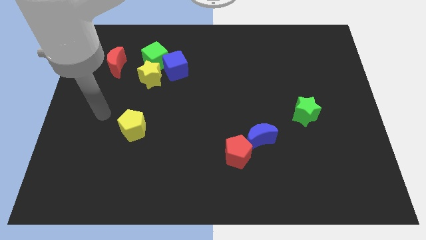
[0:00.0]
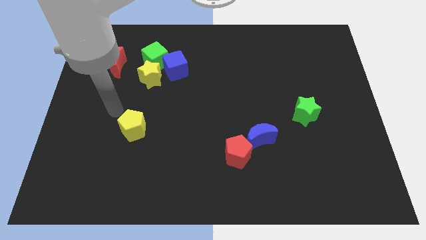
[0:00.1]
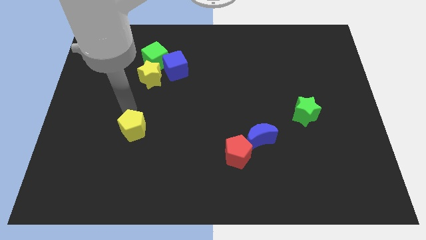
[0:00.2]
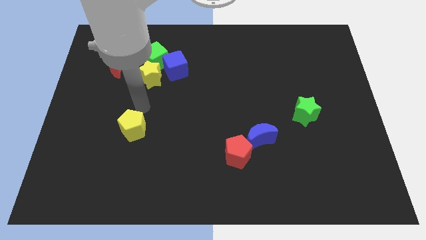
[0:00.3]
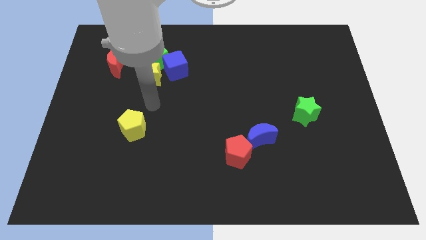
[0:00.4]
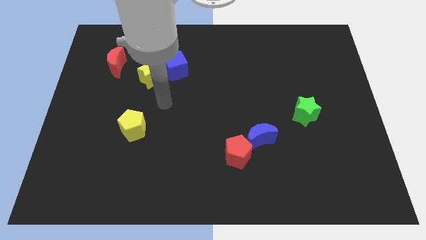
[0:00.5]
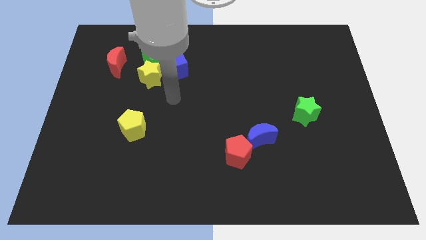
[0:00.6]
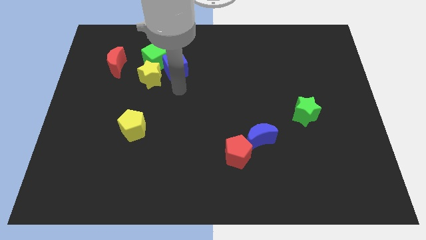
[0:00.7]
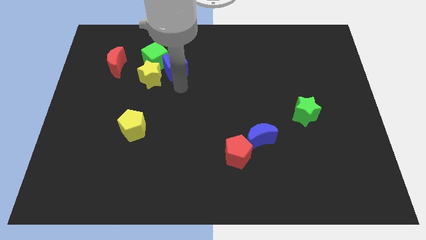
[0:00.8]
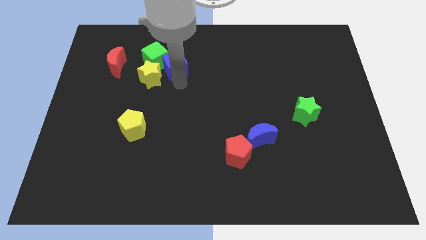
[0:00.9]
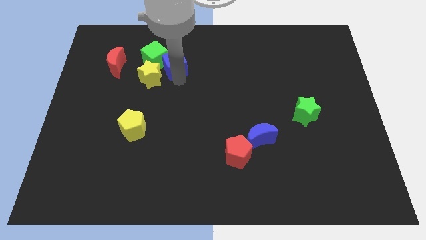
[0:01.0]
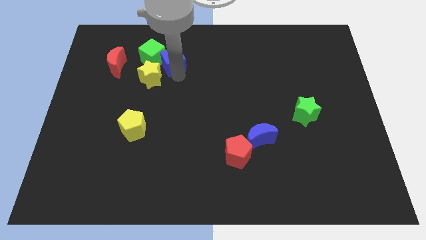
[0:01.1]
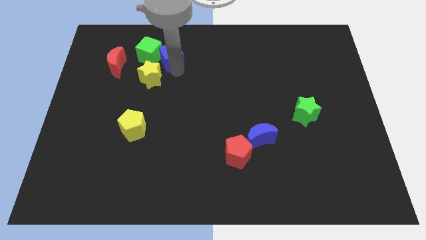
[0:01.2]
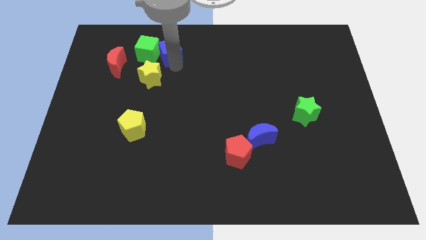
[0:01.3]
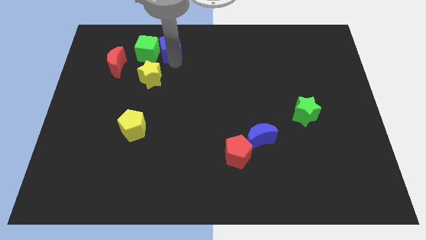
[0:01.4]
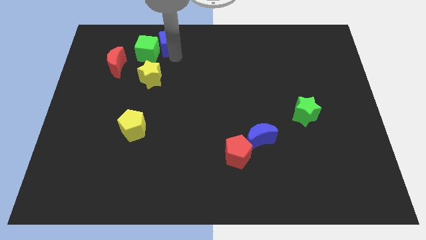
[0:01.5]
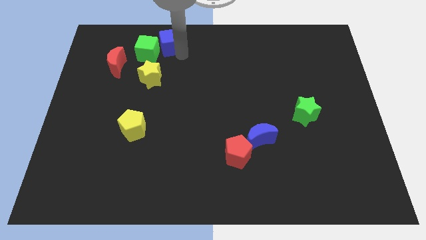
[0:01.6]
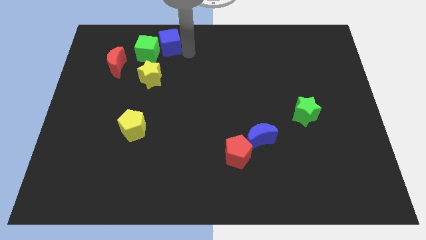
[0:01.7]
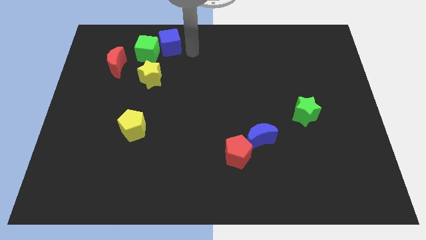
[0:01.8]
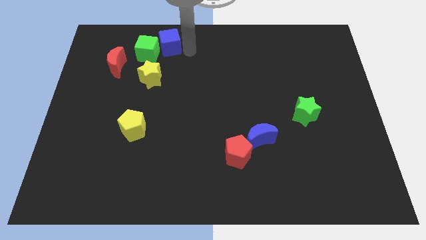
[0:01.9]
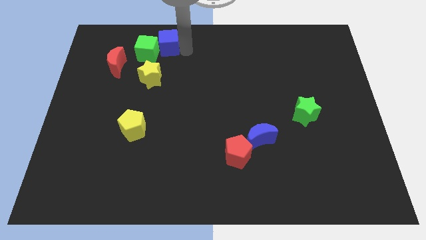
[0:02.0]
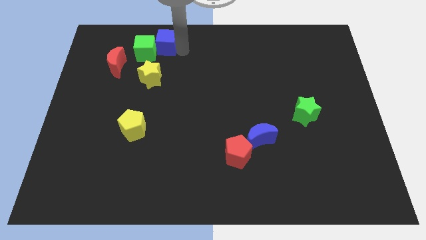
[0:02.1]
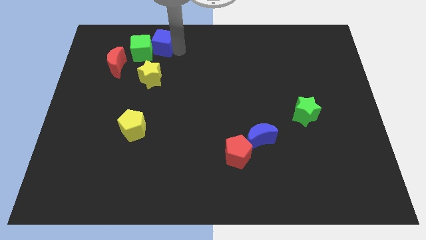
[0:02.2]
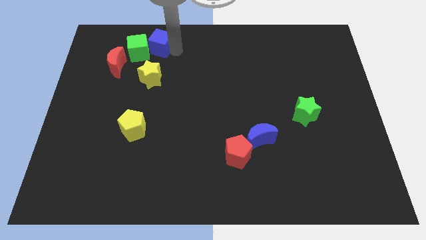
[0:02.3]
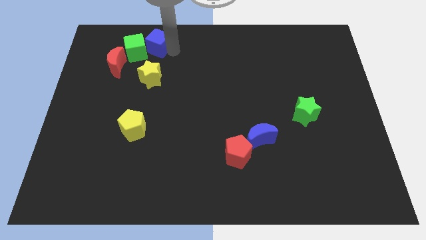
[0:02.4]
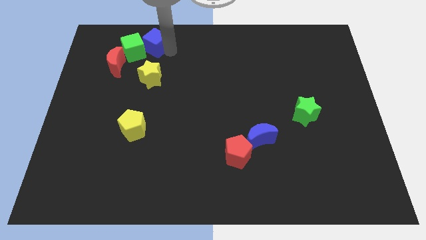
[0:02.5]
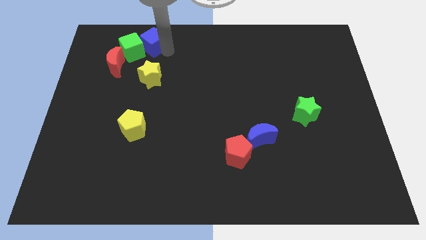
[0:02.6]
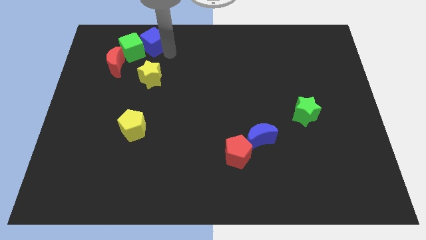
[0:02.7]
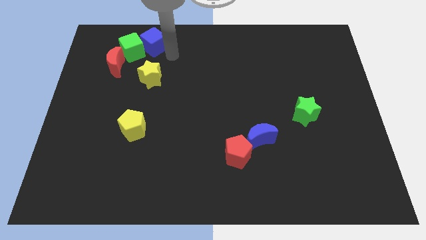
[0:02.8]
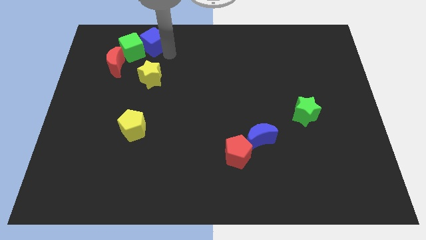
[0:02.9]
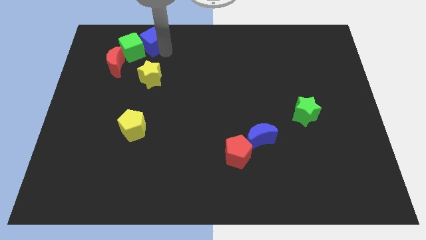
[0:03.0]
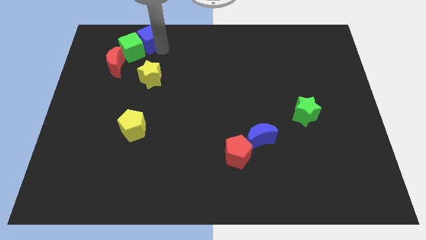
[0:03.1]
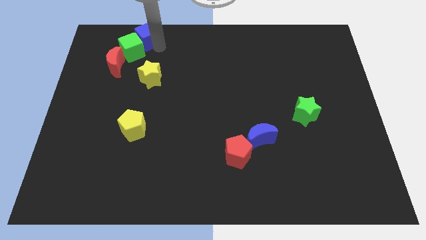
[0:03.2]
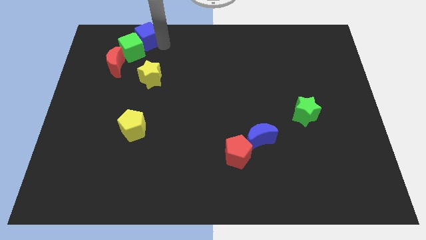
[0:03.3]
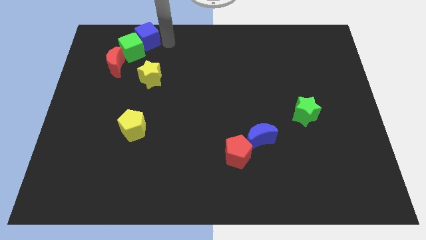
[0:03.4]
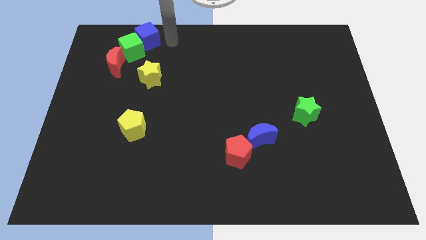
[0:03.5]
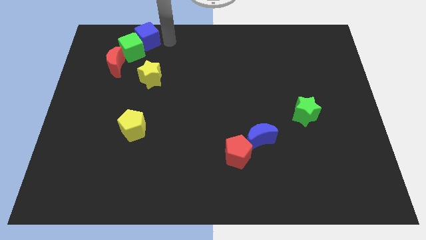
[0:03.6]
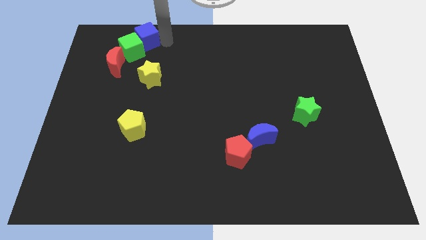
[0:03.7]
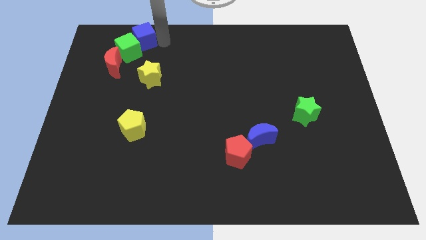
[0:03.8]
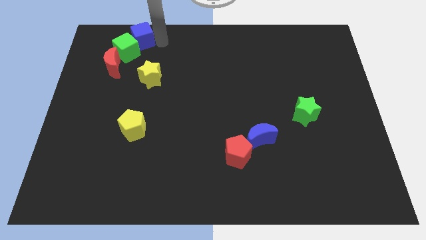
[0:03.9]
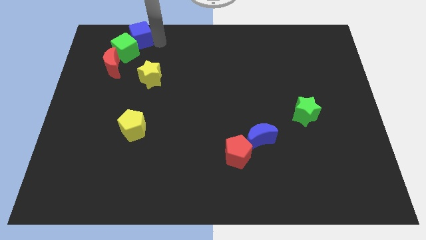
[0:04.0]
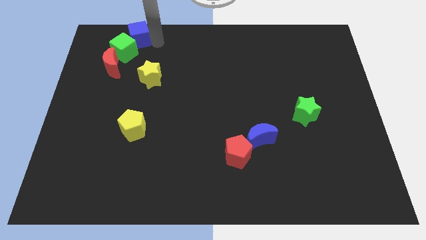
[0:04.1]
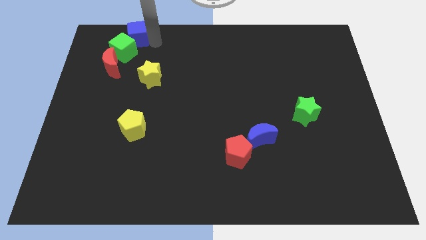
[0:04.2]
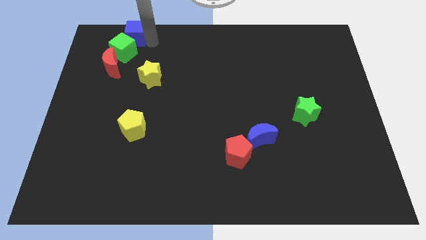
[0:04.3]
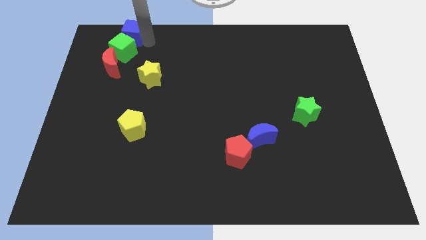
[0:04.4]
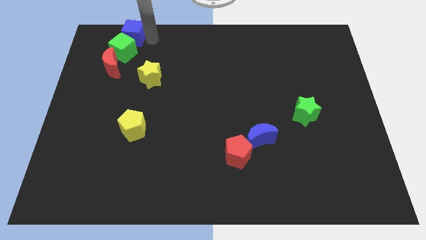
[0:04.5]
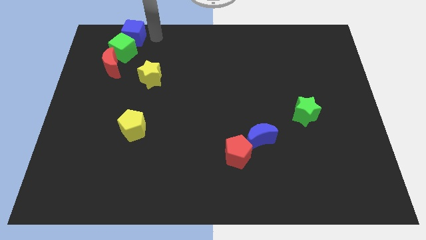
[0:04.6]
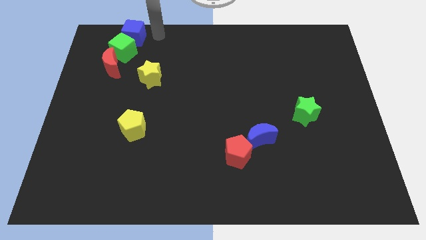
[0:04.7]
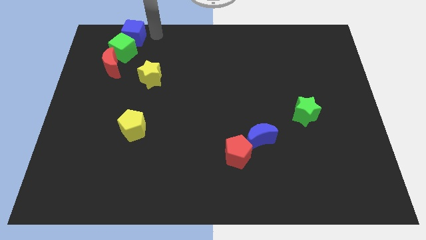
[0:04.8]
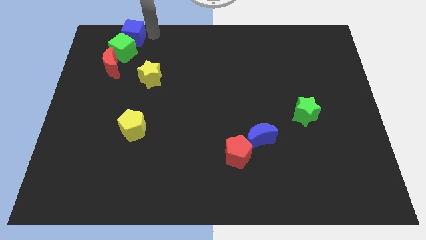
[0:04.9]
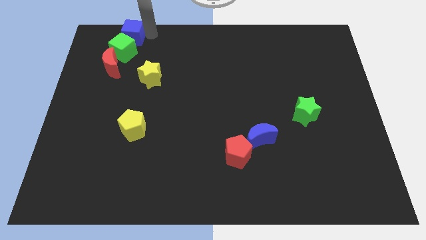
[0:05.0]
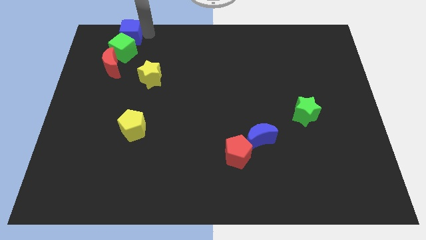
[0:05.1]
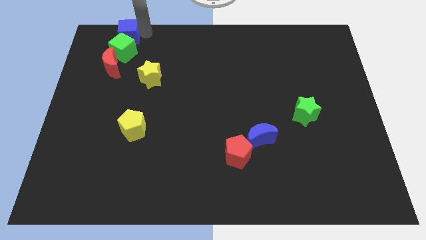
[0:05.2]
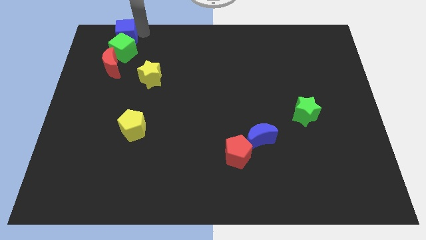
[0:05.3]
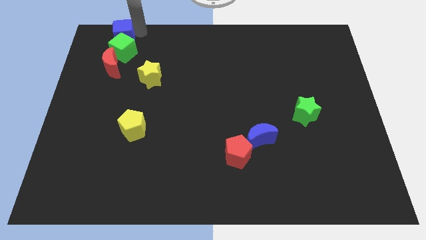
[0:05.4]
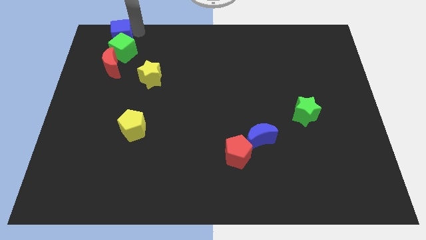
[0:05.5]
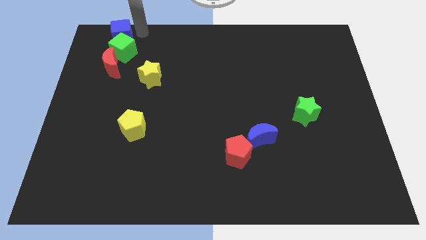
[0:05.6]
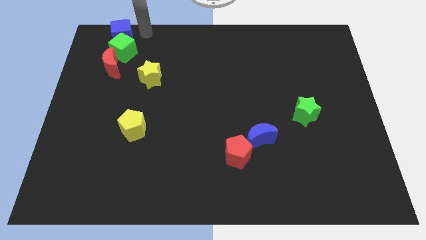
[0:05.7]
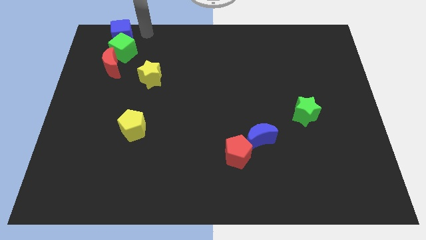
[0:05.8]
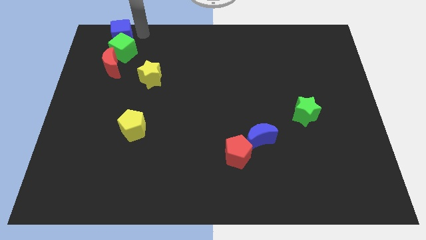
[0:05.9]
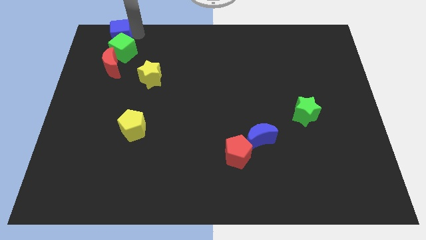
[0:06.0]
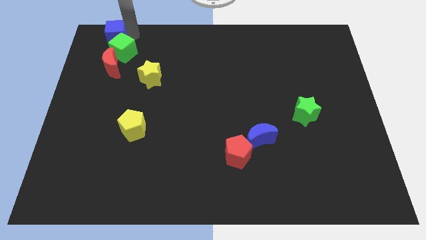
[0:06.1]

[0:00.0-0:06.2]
move the blue cube to the top left corner

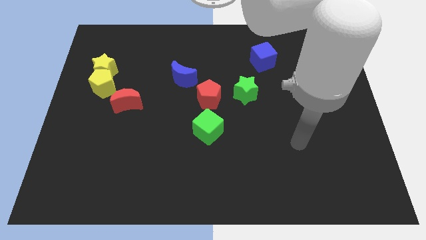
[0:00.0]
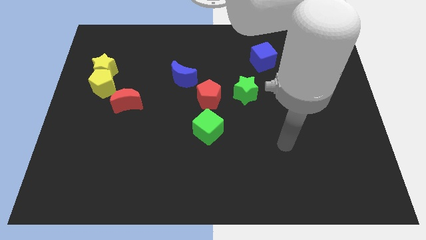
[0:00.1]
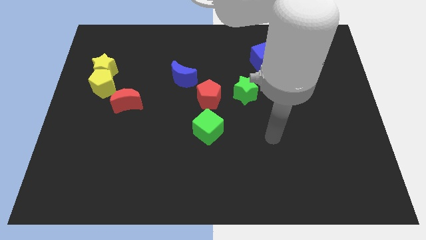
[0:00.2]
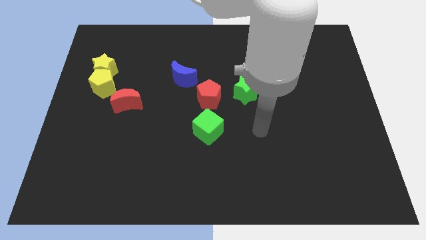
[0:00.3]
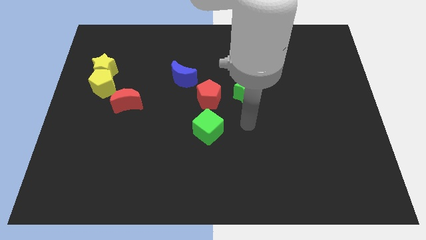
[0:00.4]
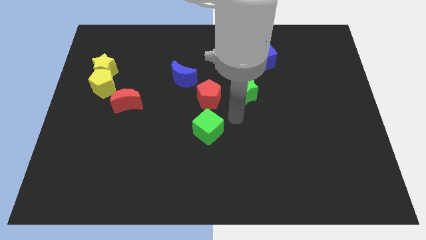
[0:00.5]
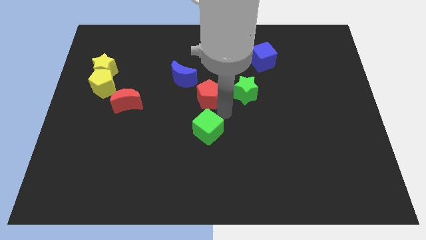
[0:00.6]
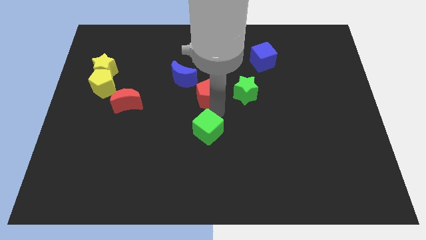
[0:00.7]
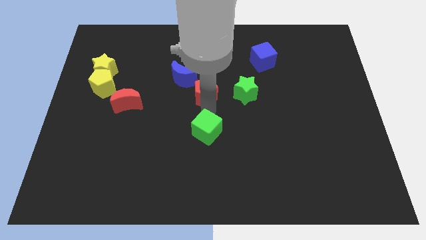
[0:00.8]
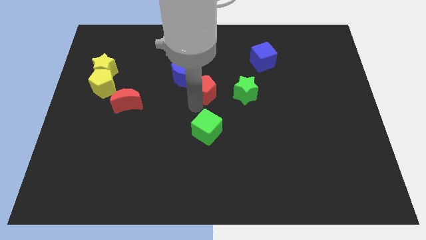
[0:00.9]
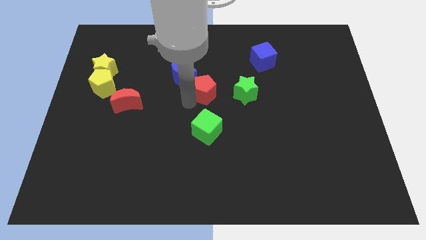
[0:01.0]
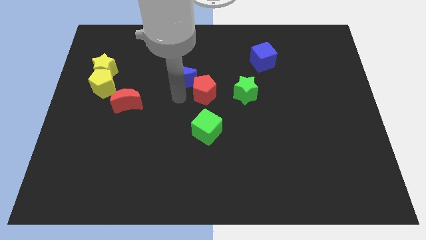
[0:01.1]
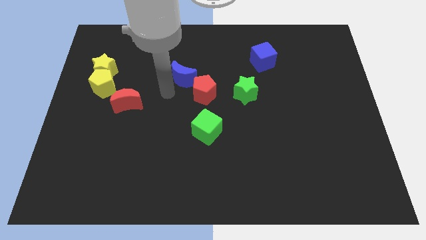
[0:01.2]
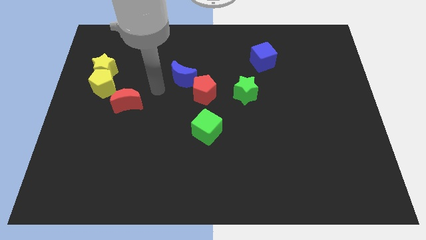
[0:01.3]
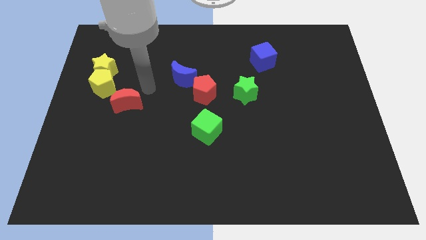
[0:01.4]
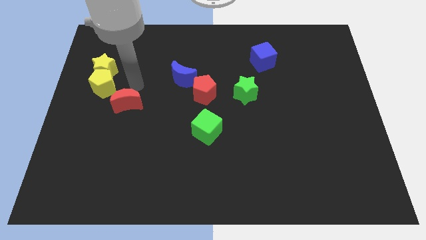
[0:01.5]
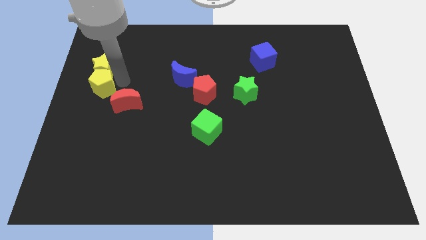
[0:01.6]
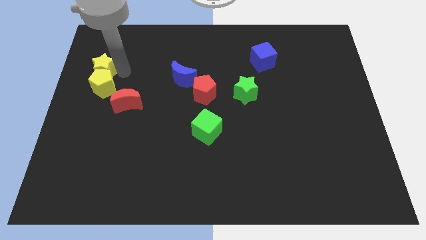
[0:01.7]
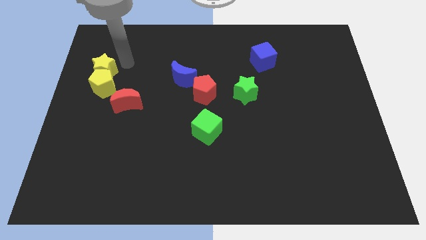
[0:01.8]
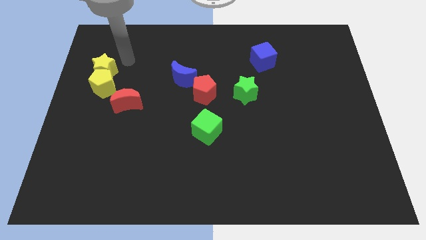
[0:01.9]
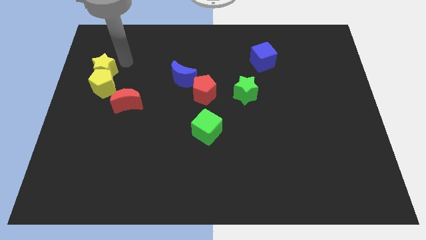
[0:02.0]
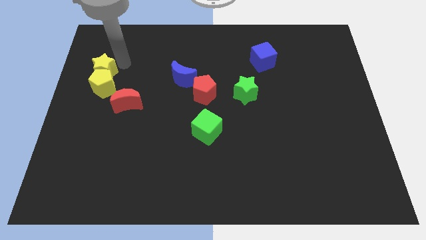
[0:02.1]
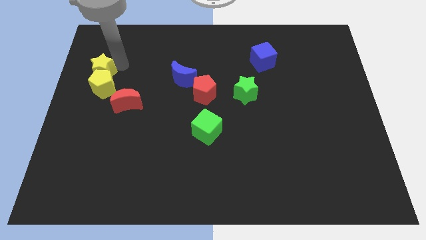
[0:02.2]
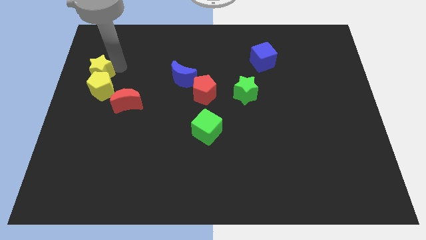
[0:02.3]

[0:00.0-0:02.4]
move the yellow star to the left side
